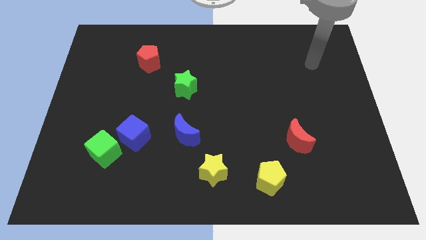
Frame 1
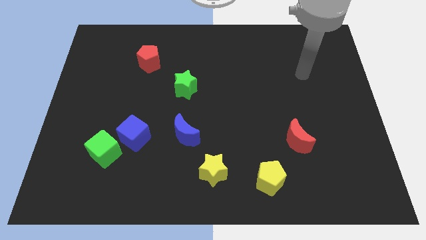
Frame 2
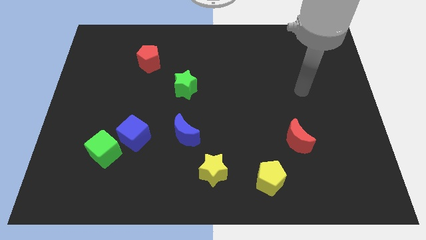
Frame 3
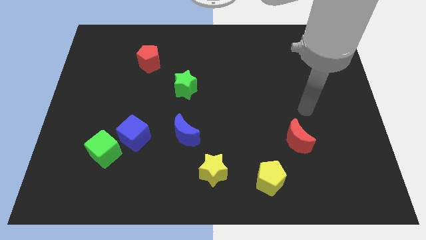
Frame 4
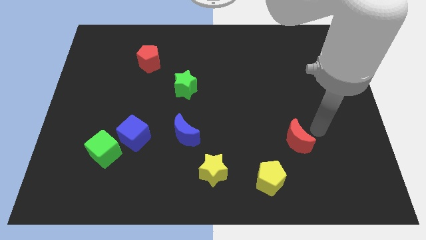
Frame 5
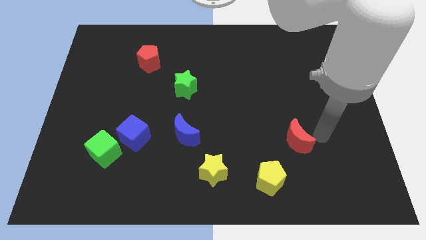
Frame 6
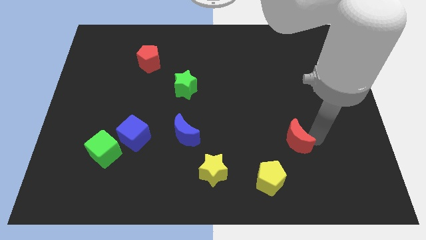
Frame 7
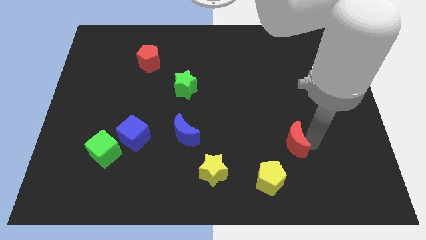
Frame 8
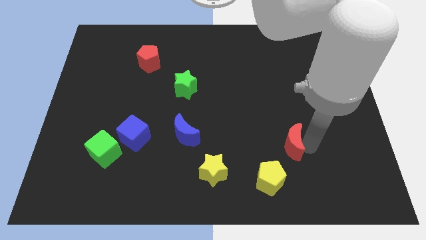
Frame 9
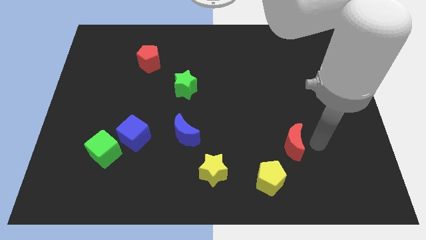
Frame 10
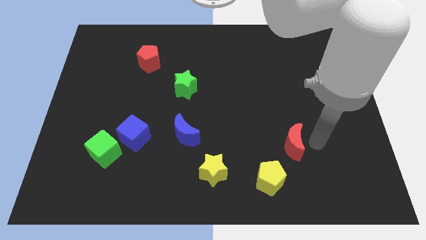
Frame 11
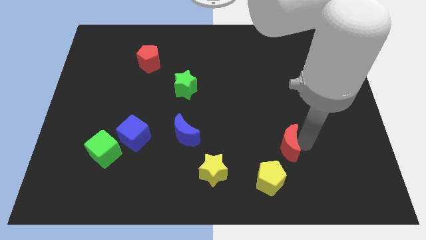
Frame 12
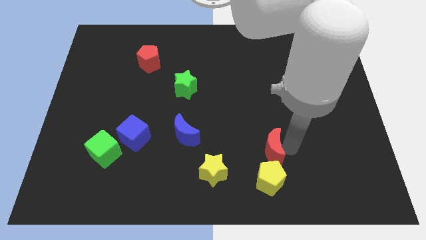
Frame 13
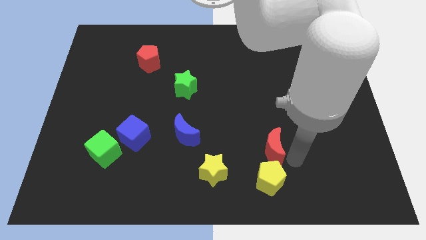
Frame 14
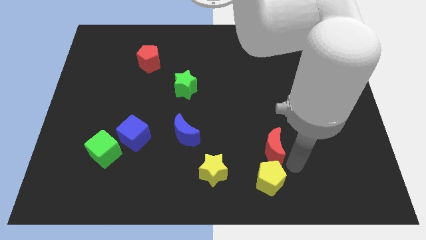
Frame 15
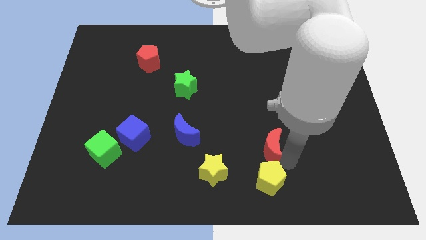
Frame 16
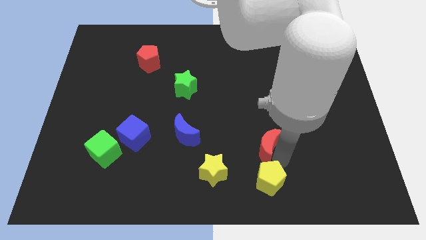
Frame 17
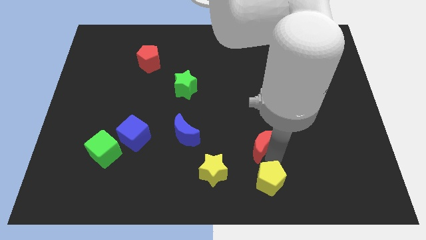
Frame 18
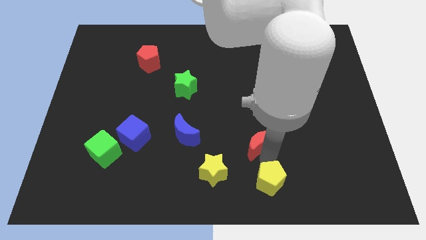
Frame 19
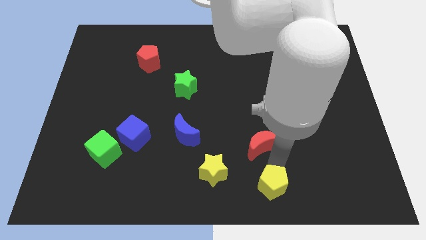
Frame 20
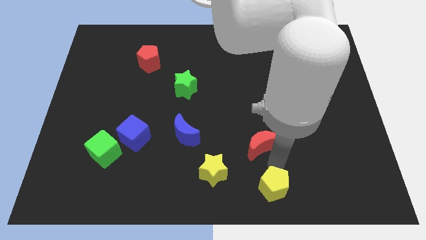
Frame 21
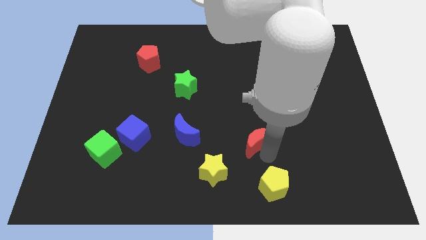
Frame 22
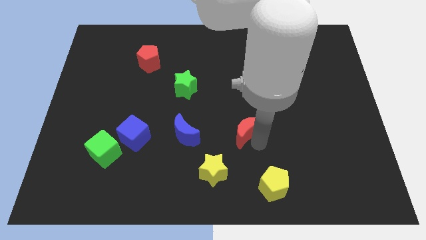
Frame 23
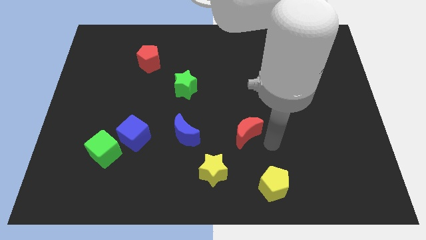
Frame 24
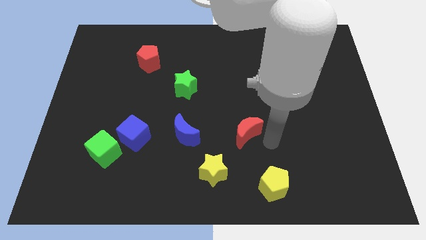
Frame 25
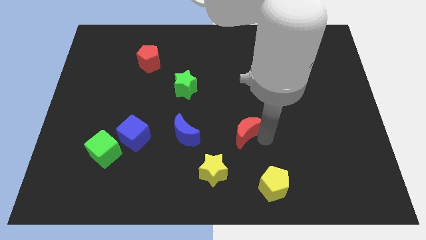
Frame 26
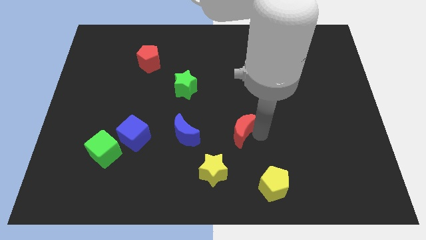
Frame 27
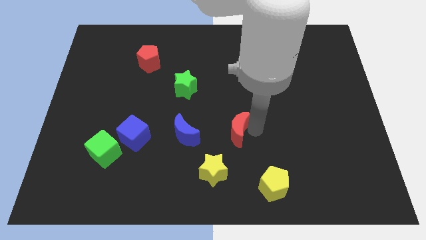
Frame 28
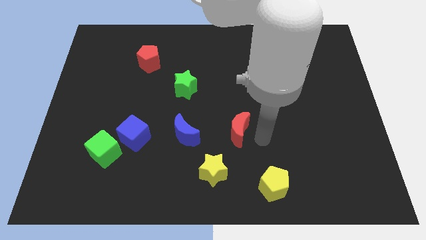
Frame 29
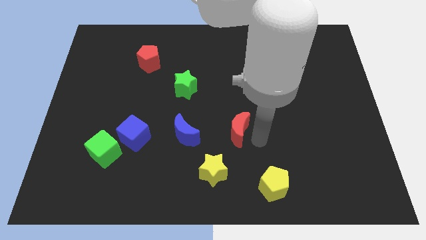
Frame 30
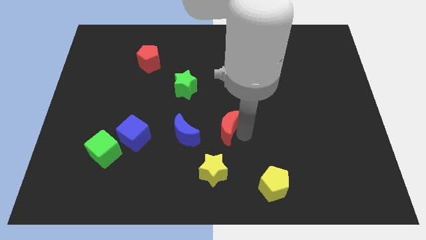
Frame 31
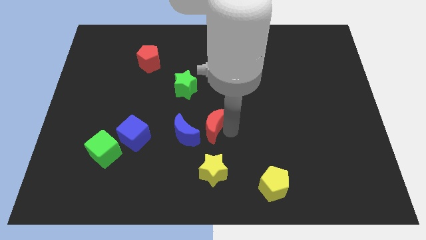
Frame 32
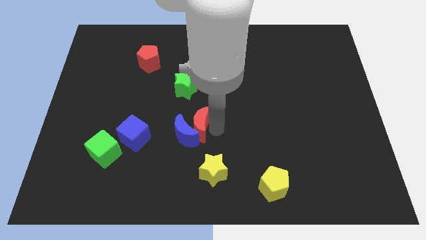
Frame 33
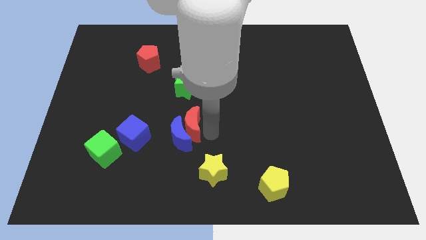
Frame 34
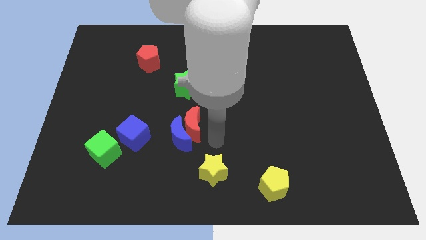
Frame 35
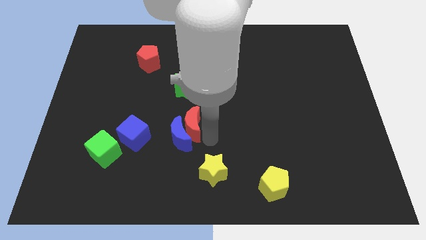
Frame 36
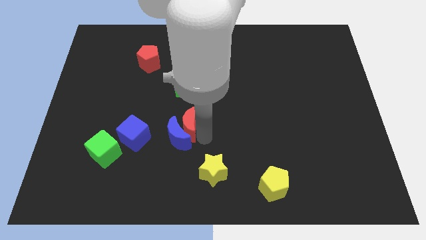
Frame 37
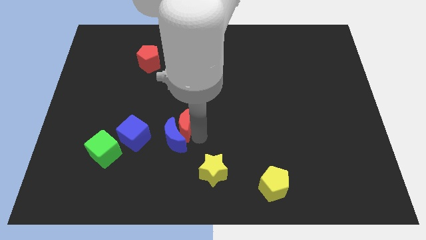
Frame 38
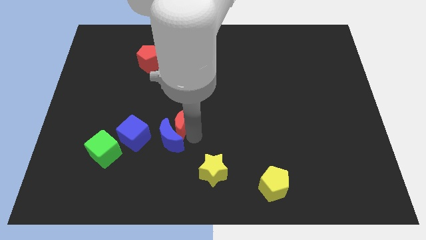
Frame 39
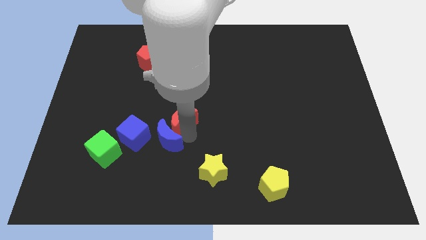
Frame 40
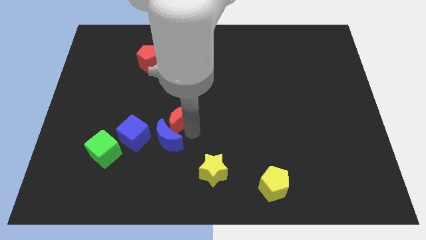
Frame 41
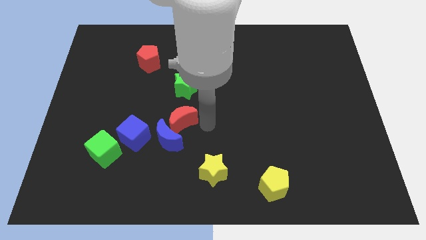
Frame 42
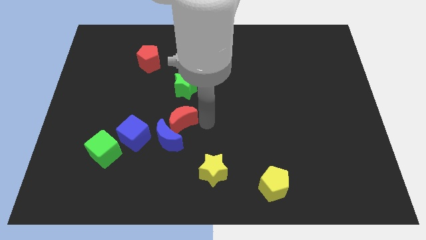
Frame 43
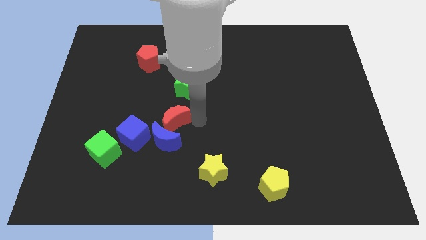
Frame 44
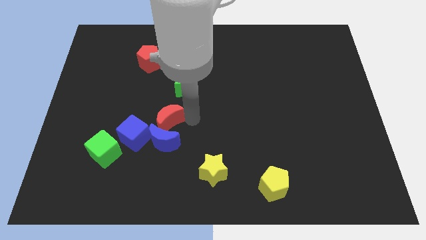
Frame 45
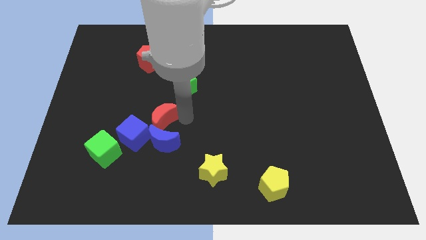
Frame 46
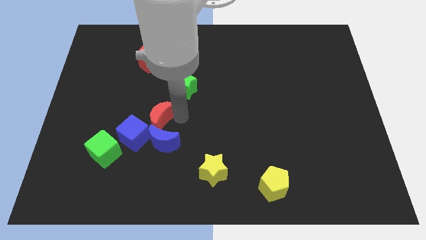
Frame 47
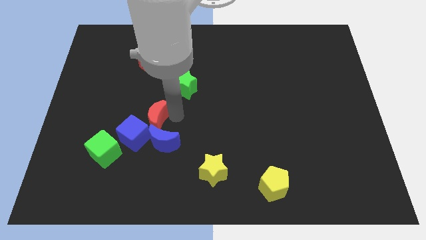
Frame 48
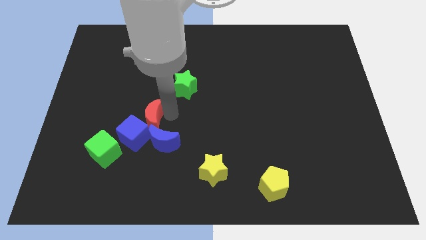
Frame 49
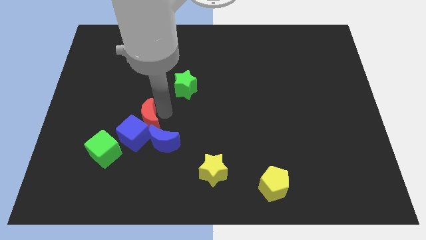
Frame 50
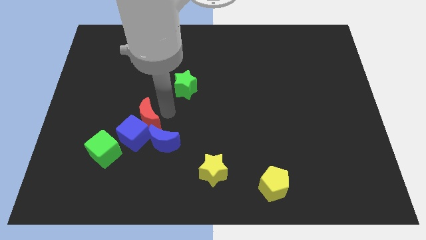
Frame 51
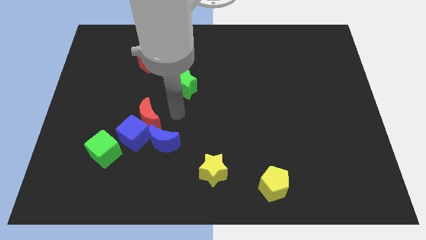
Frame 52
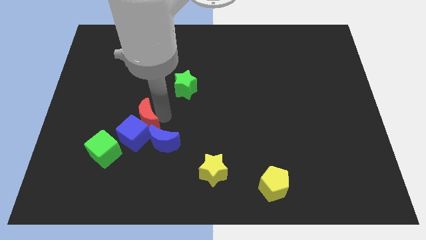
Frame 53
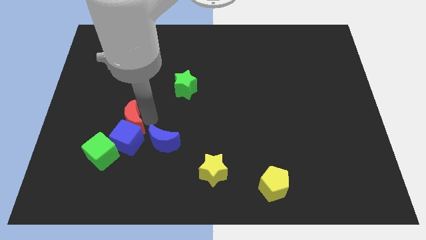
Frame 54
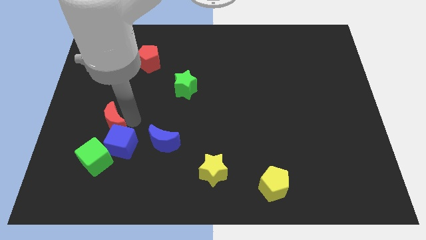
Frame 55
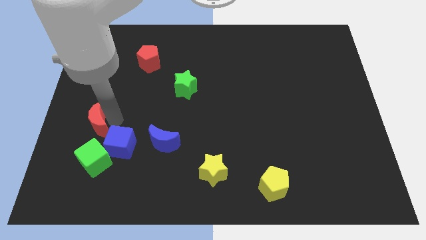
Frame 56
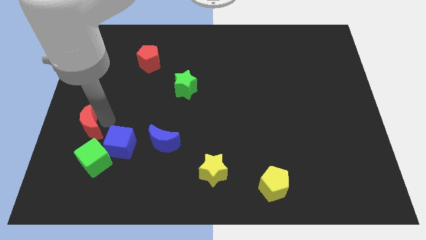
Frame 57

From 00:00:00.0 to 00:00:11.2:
slide the red moon to the top left side of the green cube

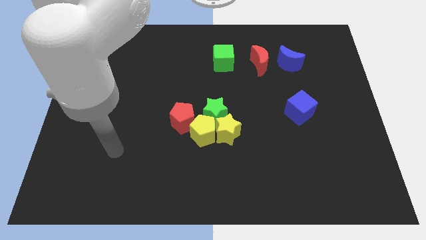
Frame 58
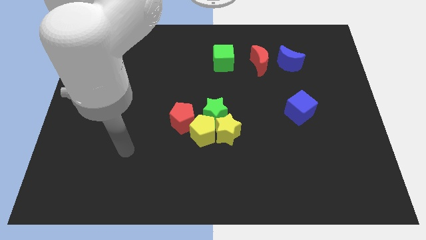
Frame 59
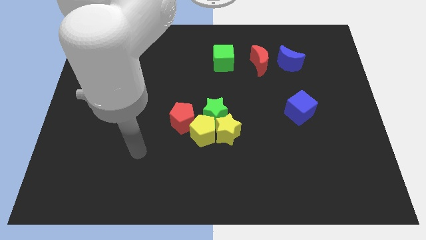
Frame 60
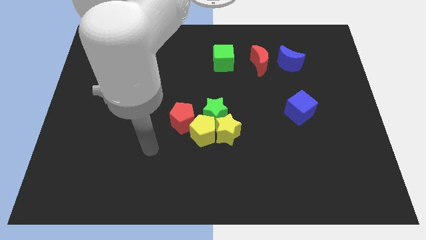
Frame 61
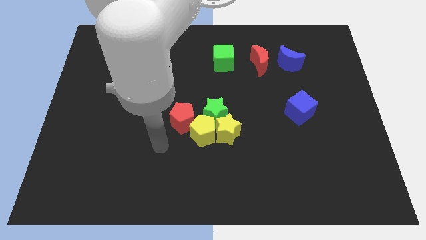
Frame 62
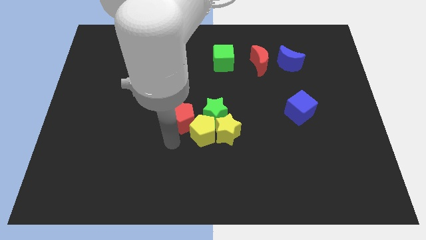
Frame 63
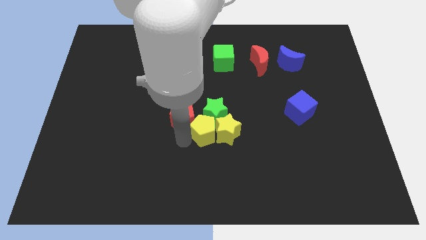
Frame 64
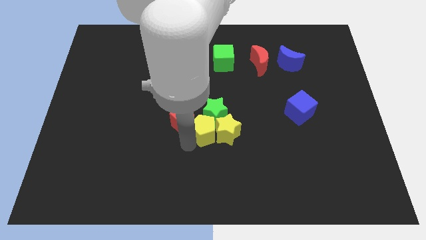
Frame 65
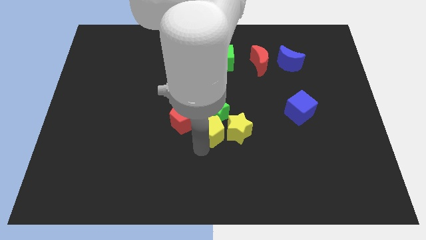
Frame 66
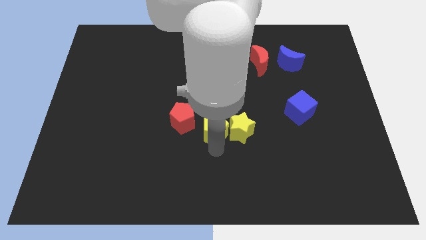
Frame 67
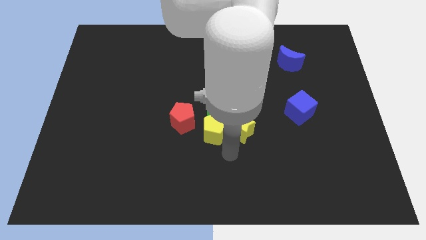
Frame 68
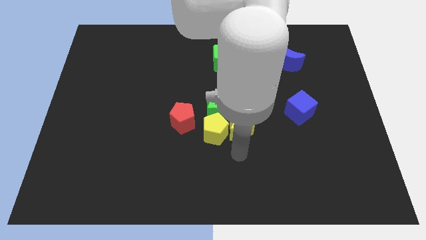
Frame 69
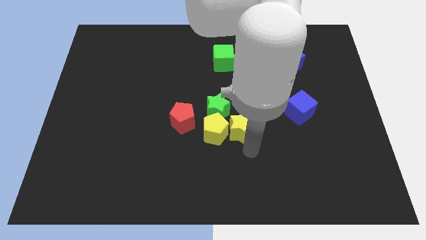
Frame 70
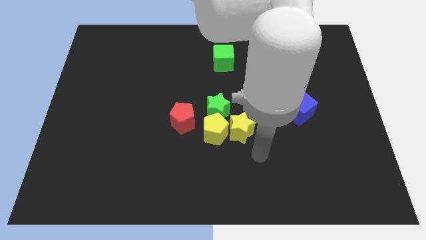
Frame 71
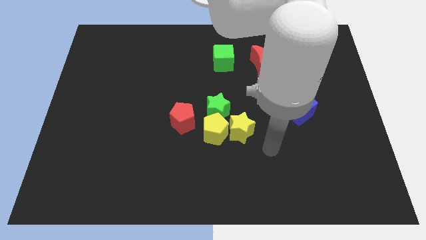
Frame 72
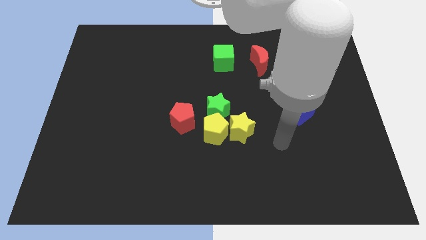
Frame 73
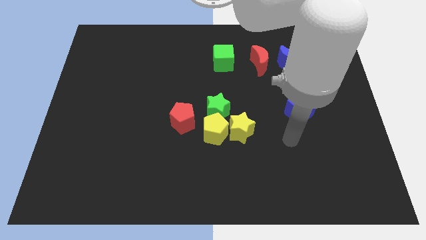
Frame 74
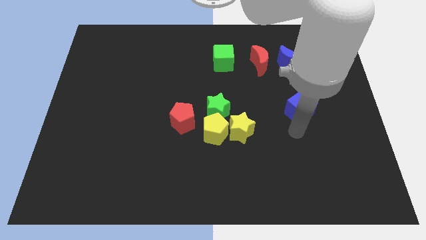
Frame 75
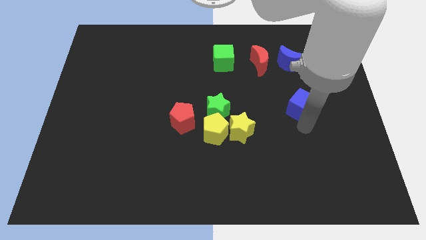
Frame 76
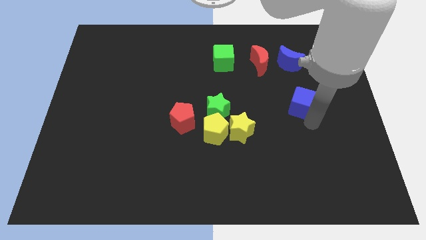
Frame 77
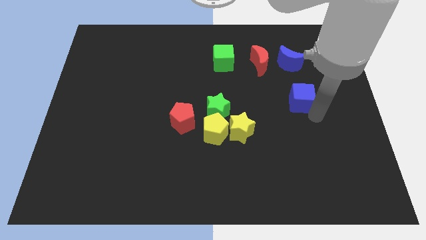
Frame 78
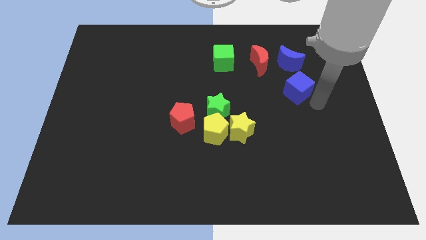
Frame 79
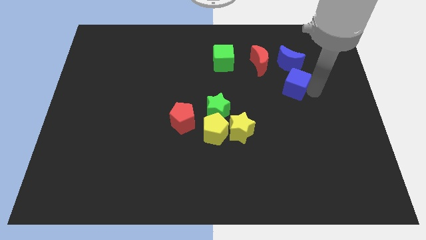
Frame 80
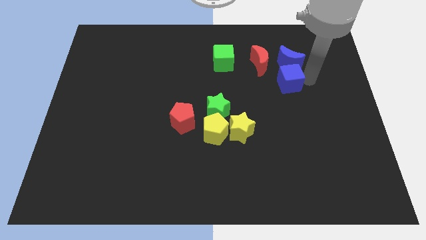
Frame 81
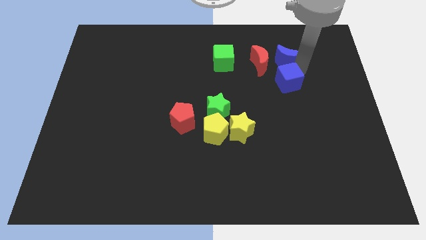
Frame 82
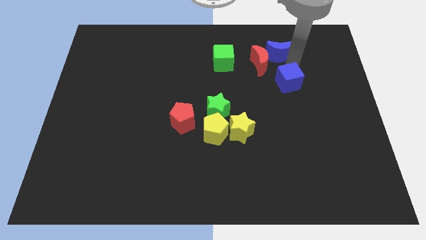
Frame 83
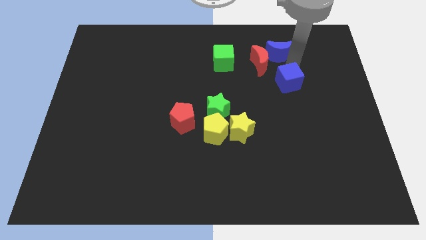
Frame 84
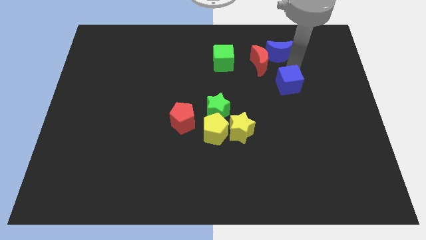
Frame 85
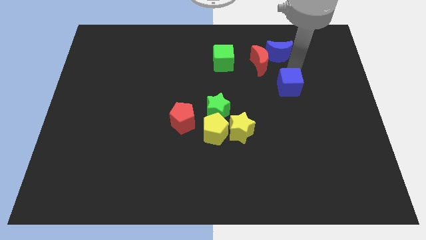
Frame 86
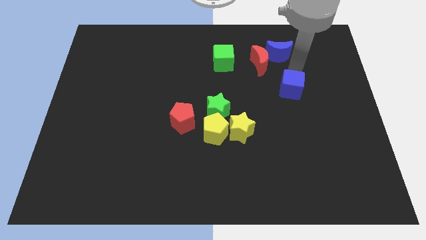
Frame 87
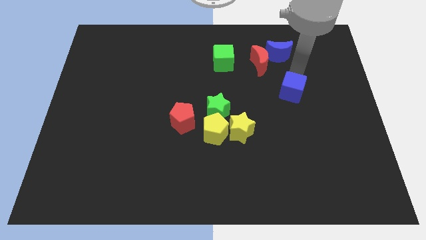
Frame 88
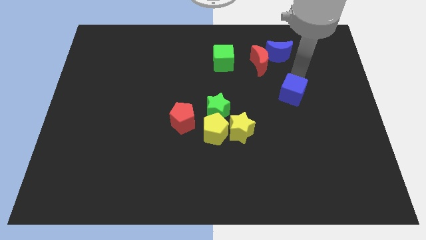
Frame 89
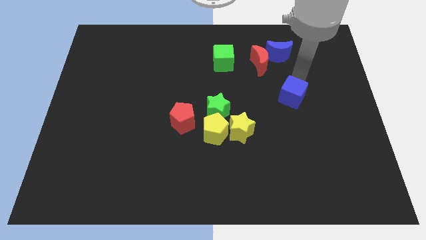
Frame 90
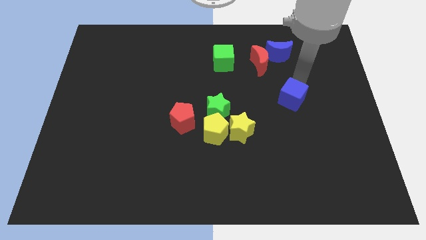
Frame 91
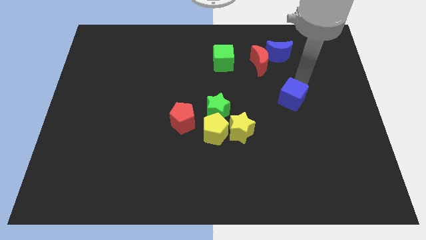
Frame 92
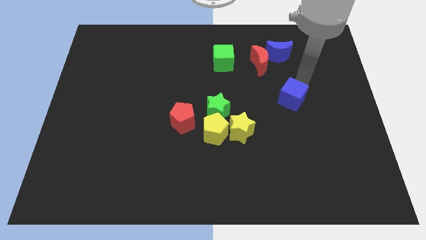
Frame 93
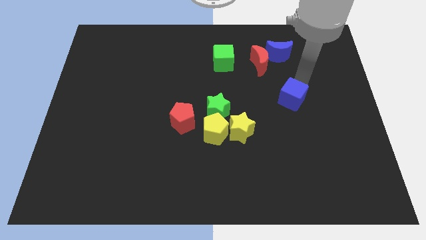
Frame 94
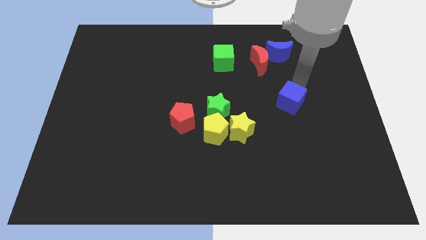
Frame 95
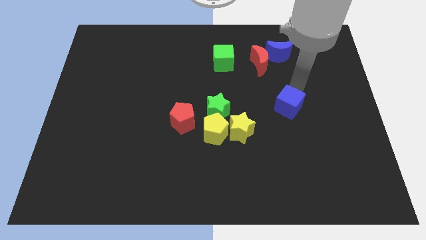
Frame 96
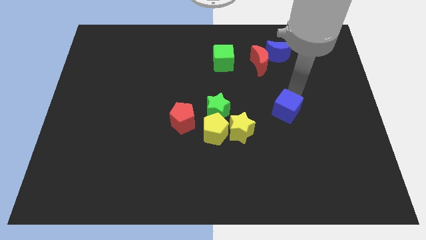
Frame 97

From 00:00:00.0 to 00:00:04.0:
move the blue cube to the right side of the green star
